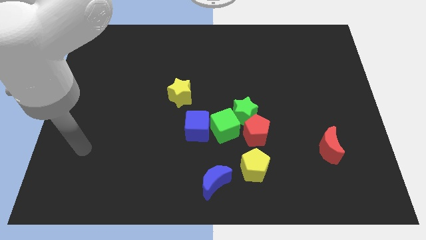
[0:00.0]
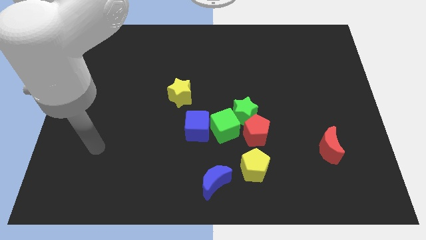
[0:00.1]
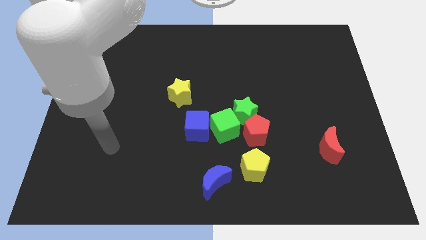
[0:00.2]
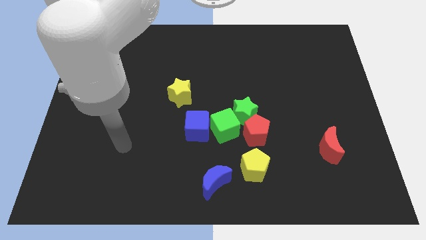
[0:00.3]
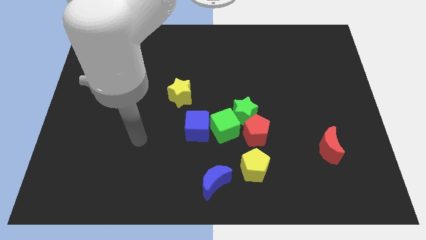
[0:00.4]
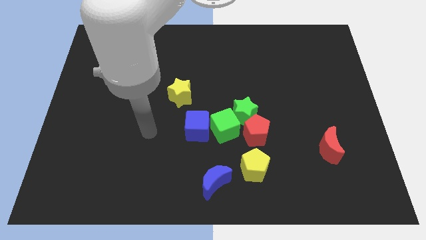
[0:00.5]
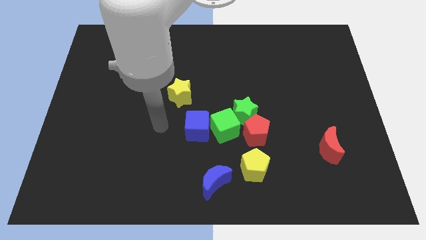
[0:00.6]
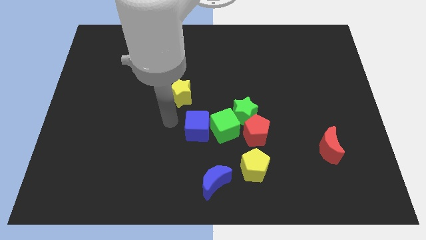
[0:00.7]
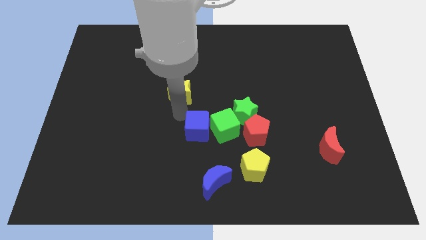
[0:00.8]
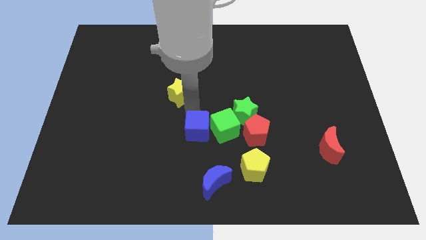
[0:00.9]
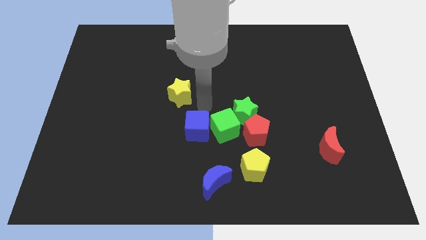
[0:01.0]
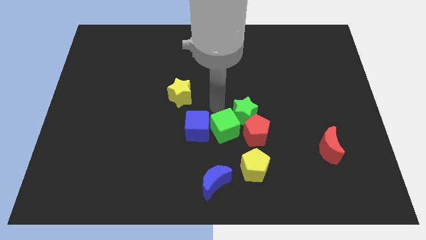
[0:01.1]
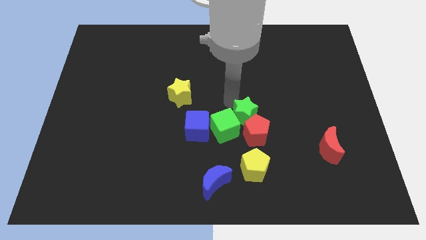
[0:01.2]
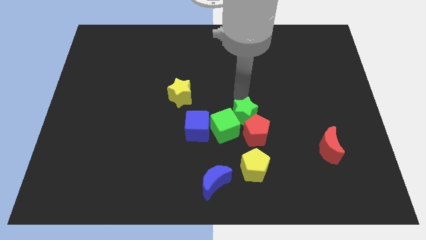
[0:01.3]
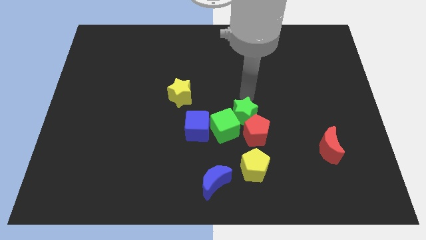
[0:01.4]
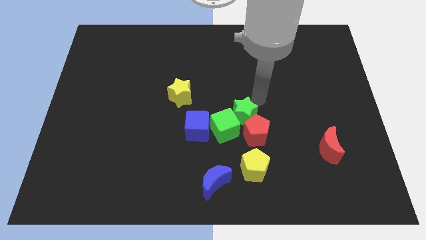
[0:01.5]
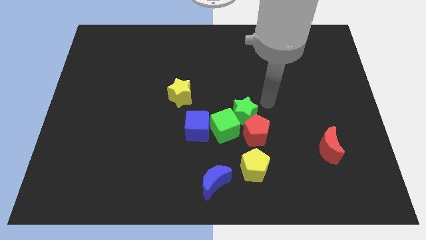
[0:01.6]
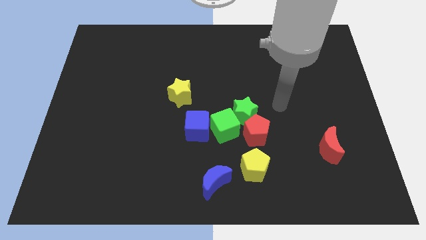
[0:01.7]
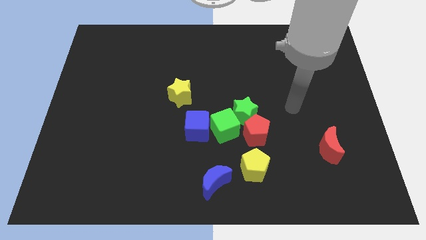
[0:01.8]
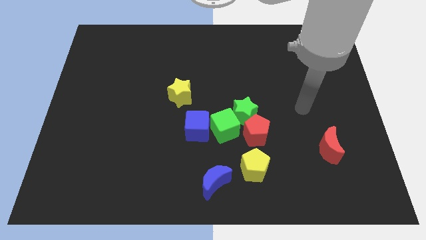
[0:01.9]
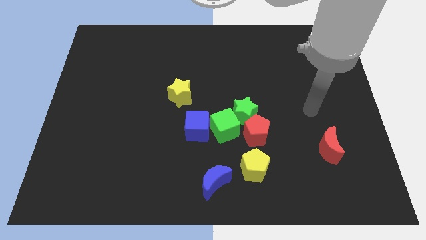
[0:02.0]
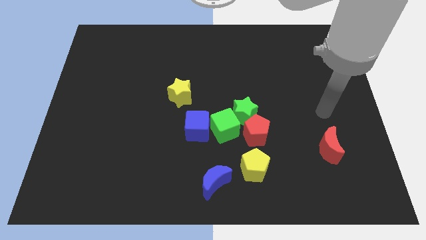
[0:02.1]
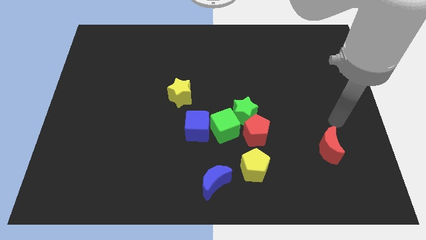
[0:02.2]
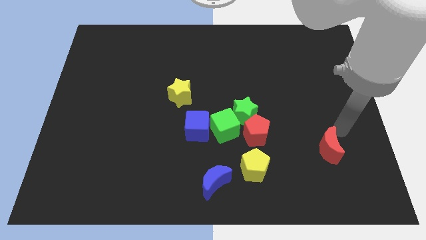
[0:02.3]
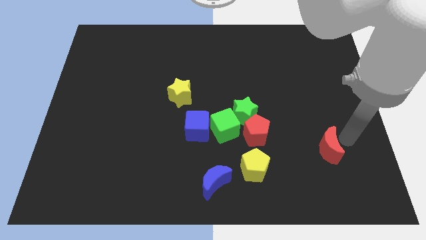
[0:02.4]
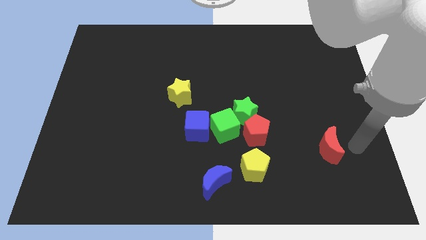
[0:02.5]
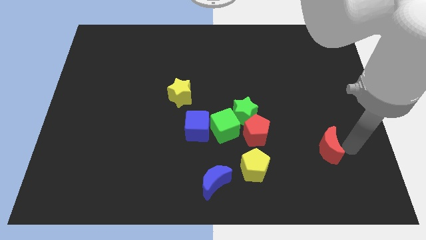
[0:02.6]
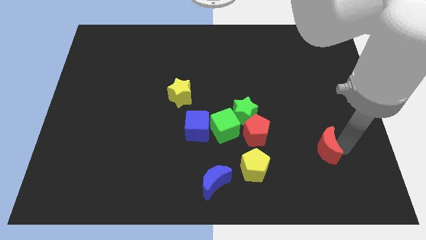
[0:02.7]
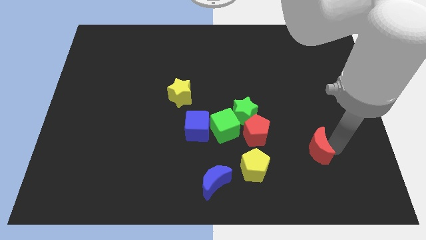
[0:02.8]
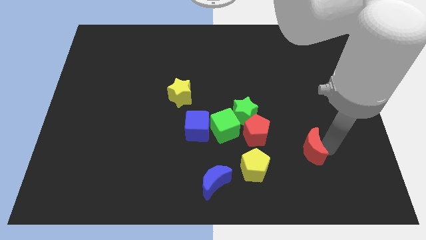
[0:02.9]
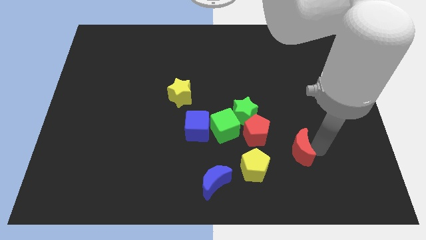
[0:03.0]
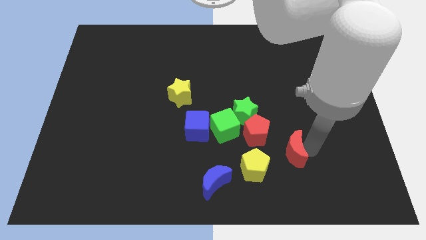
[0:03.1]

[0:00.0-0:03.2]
move the red moon left slightly

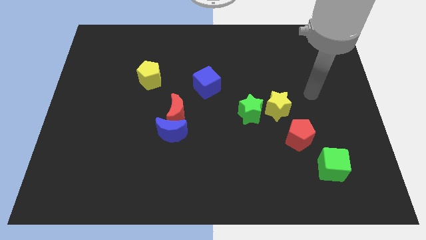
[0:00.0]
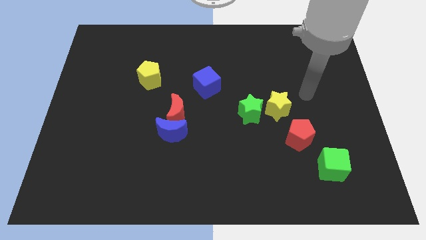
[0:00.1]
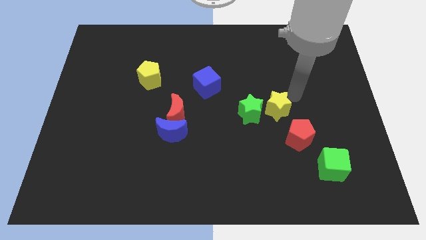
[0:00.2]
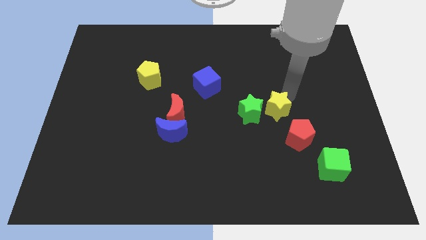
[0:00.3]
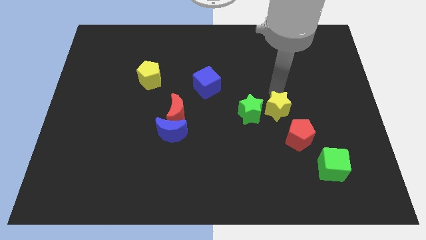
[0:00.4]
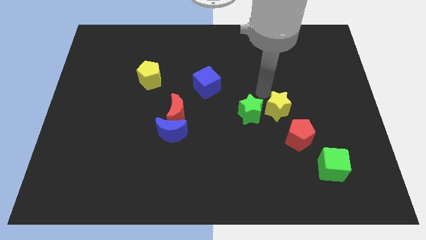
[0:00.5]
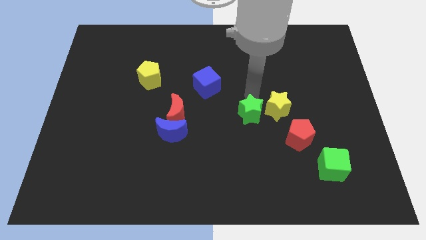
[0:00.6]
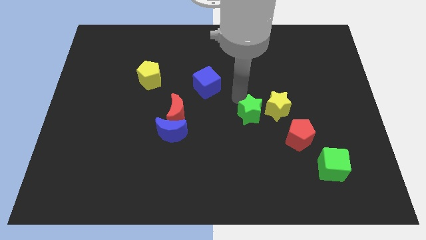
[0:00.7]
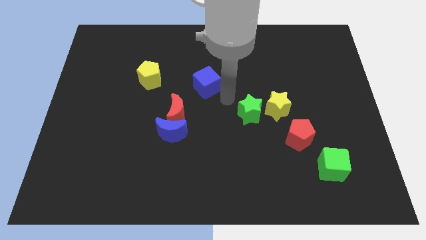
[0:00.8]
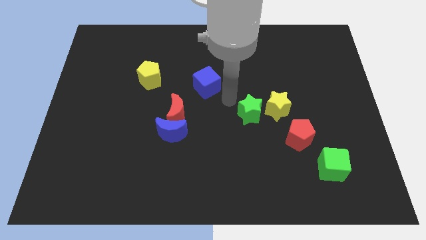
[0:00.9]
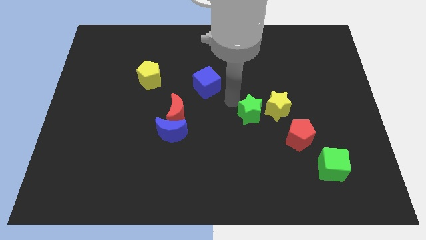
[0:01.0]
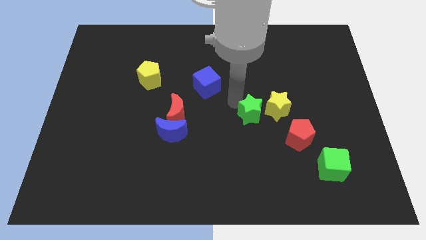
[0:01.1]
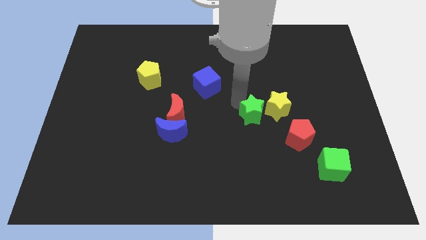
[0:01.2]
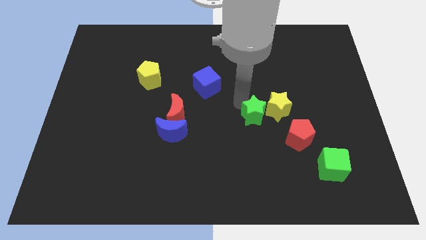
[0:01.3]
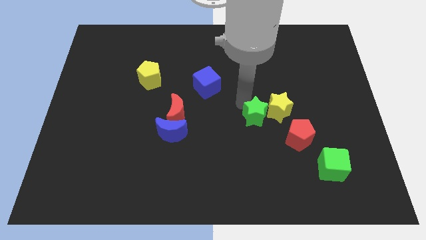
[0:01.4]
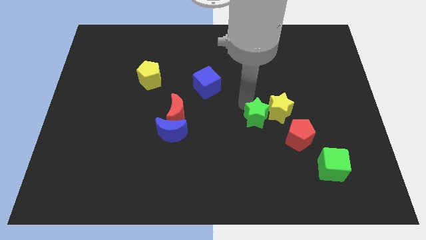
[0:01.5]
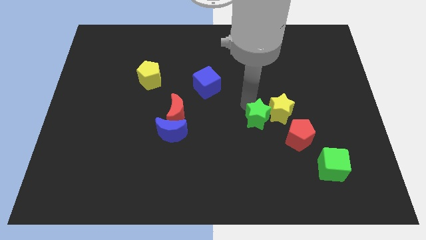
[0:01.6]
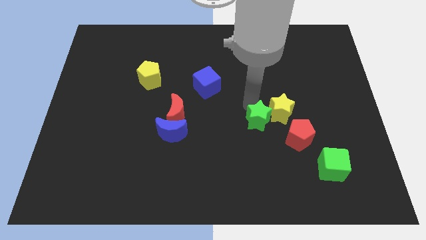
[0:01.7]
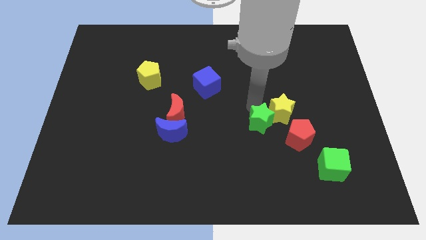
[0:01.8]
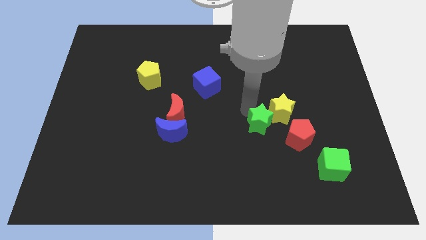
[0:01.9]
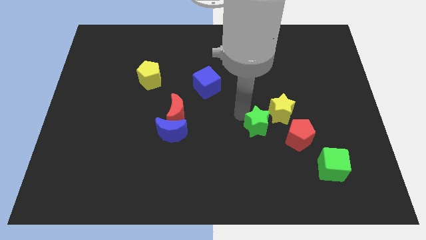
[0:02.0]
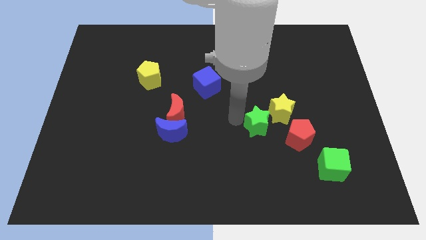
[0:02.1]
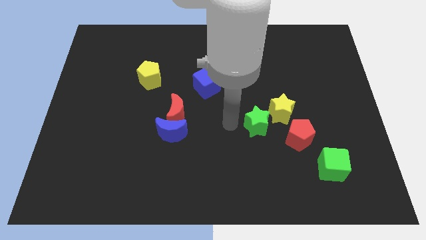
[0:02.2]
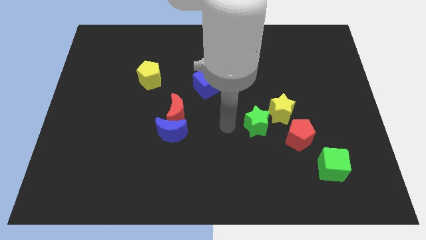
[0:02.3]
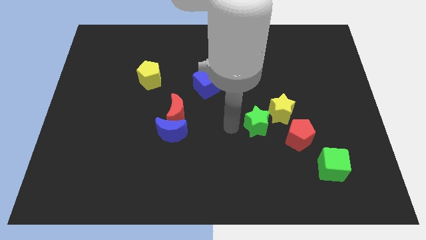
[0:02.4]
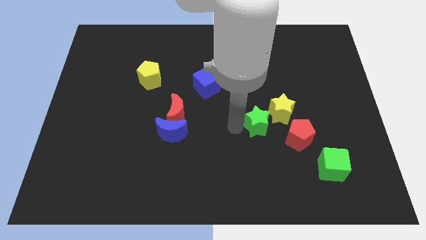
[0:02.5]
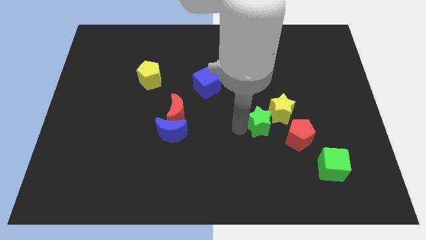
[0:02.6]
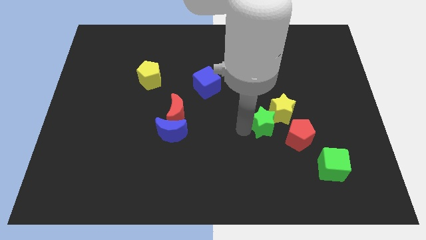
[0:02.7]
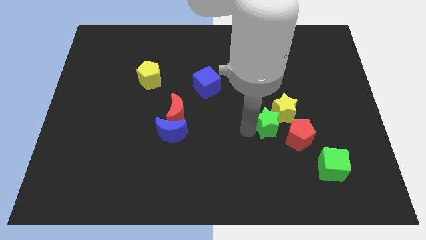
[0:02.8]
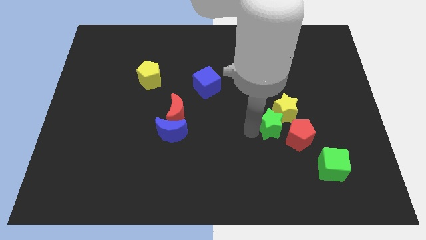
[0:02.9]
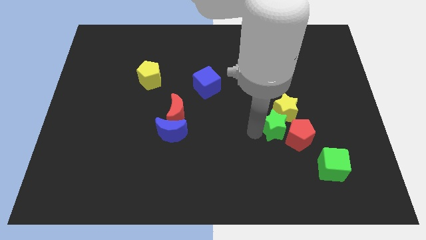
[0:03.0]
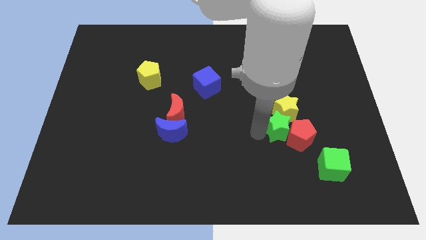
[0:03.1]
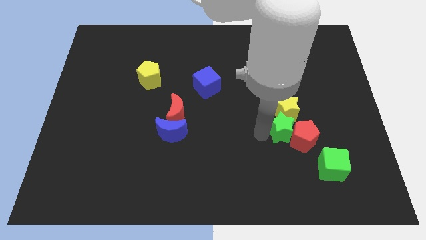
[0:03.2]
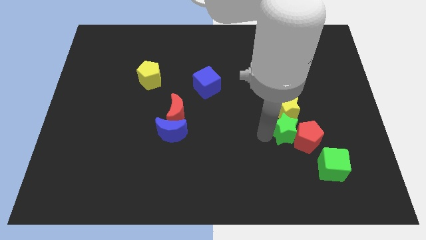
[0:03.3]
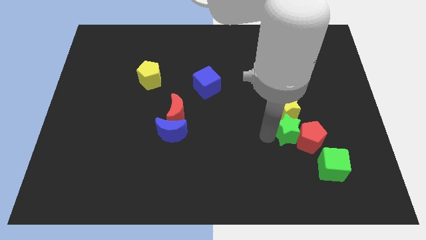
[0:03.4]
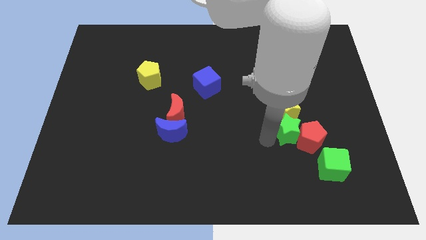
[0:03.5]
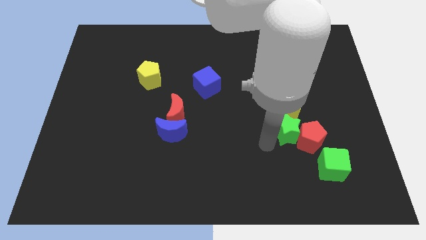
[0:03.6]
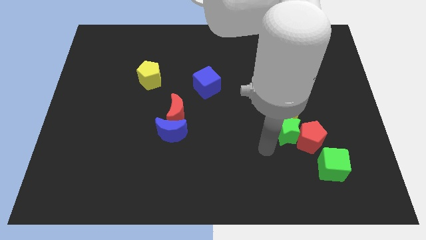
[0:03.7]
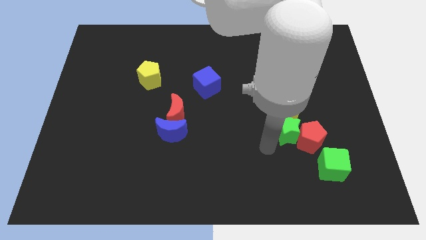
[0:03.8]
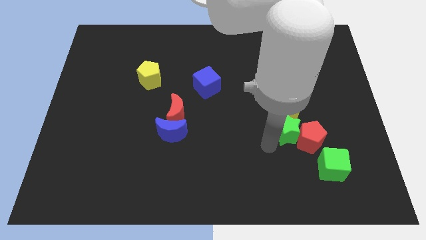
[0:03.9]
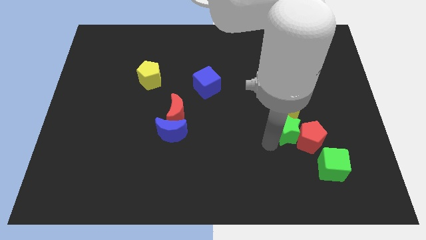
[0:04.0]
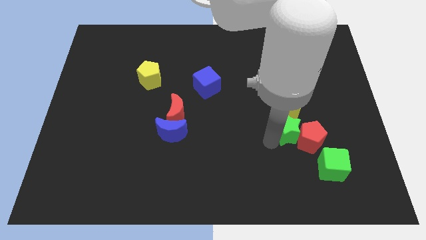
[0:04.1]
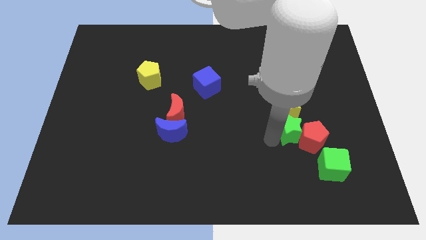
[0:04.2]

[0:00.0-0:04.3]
slide the green star to the right somewhat
